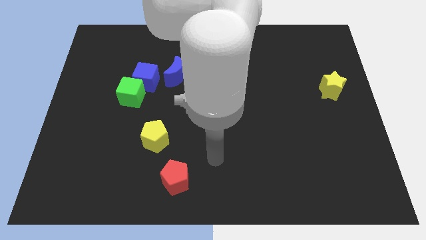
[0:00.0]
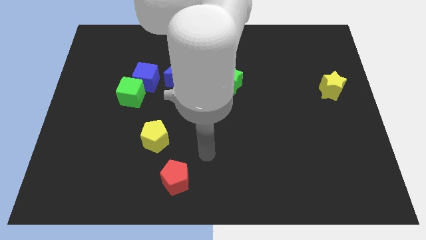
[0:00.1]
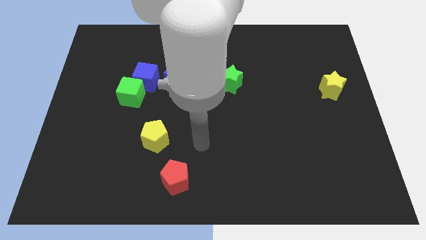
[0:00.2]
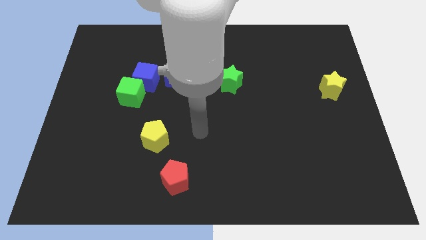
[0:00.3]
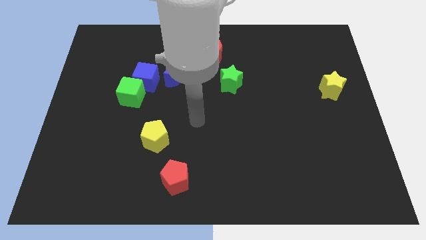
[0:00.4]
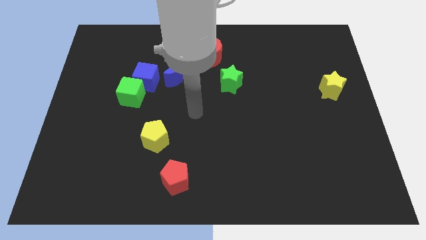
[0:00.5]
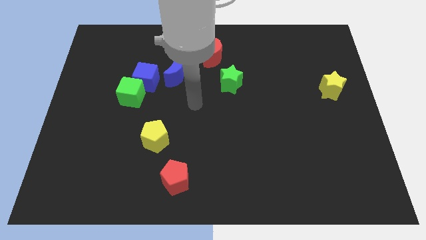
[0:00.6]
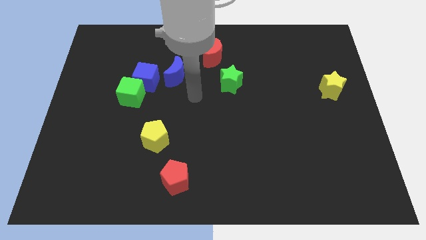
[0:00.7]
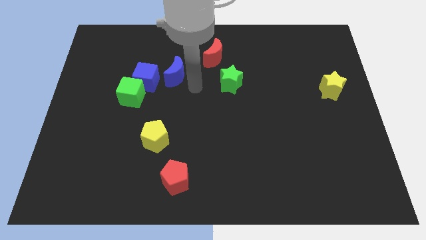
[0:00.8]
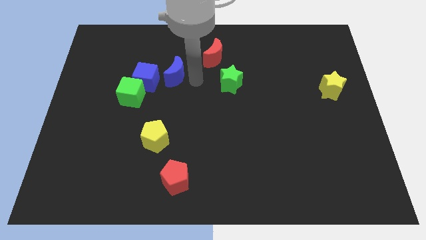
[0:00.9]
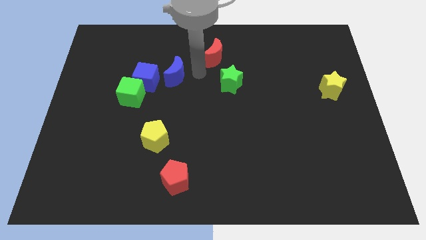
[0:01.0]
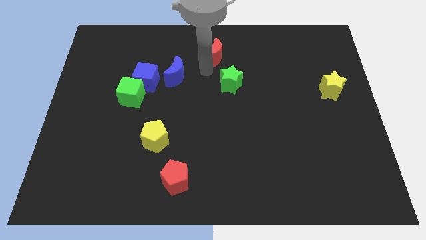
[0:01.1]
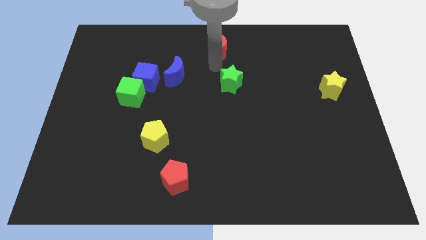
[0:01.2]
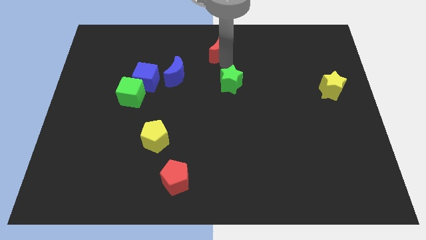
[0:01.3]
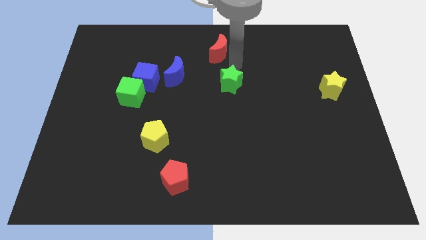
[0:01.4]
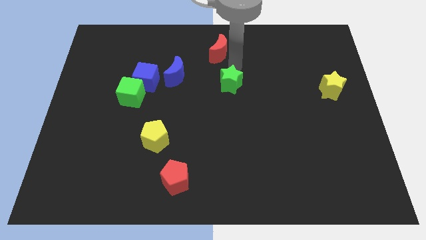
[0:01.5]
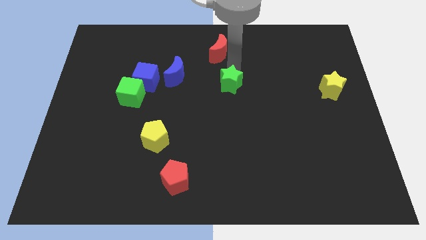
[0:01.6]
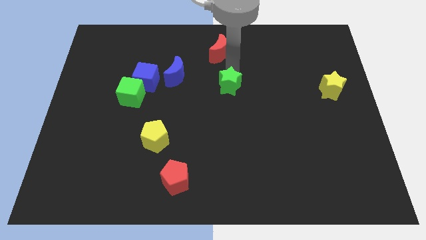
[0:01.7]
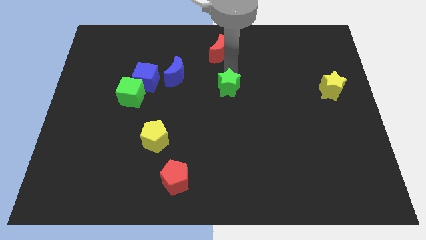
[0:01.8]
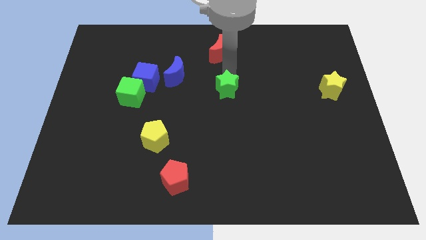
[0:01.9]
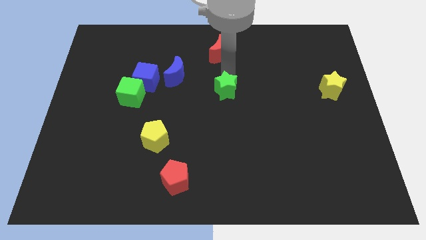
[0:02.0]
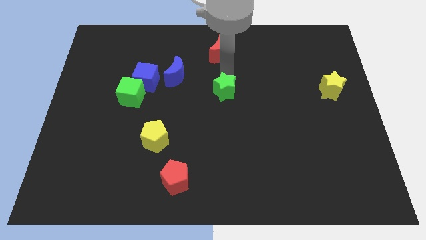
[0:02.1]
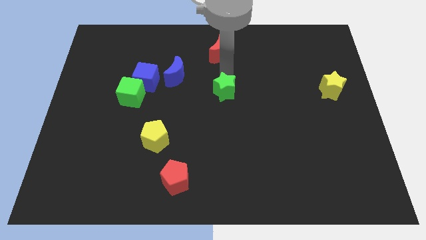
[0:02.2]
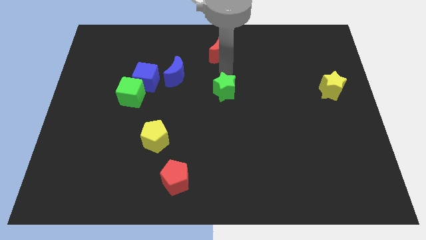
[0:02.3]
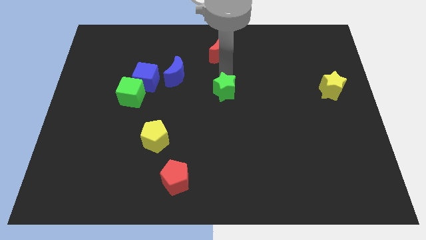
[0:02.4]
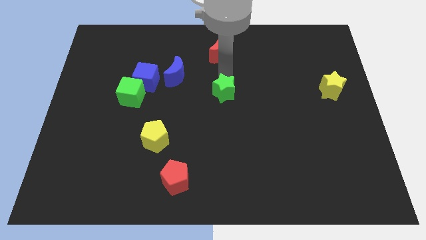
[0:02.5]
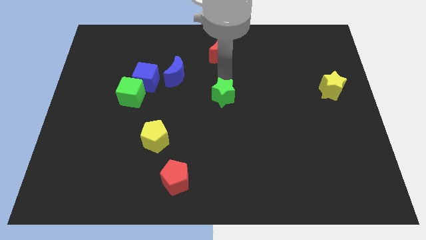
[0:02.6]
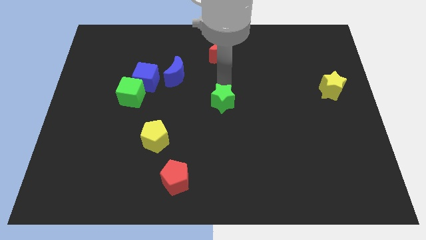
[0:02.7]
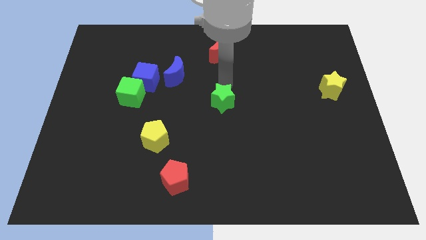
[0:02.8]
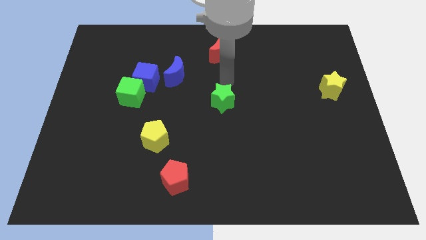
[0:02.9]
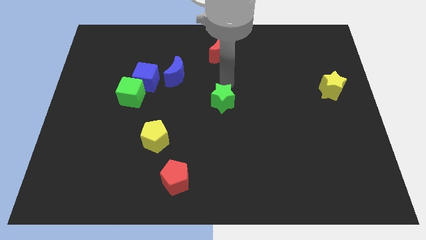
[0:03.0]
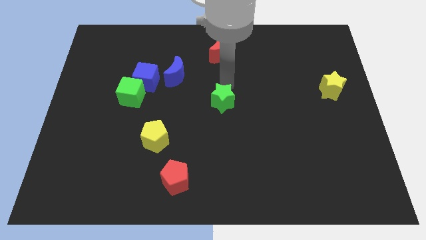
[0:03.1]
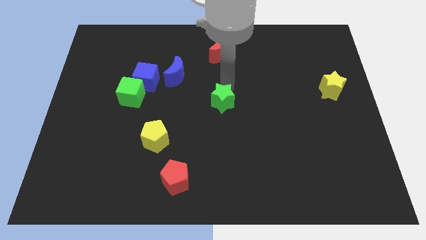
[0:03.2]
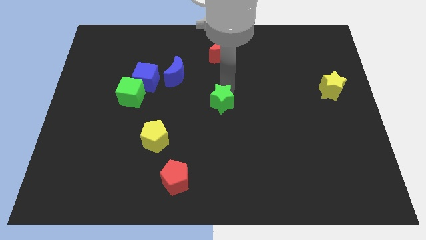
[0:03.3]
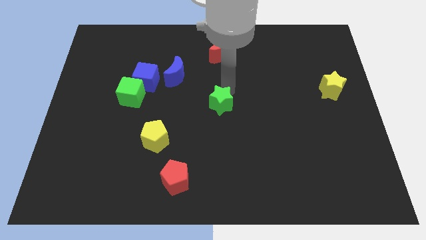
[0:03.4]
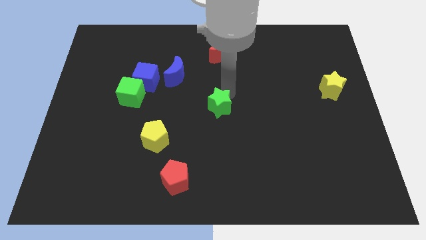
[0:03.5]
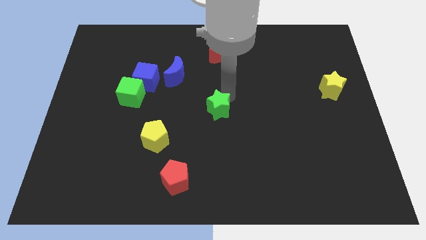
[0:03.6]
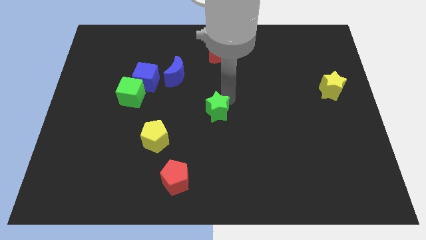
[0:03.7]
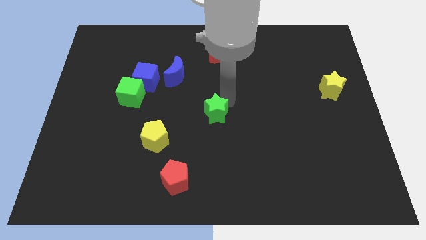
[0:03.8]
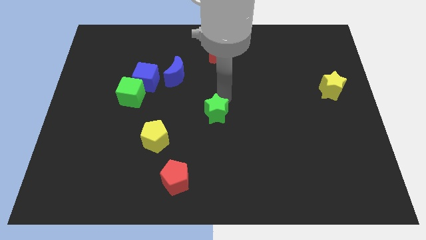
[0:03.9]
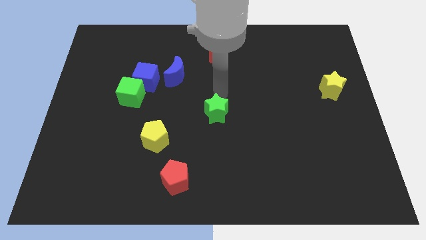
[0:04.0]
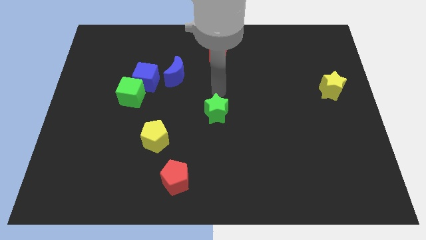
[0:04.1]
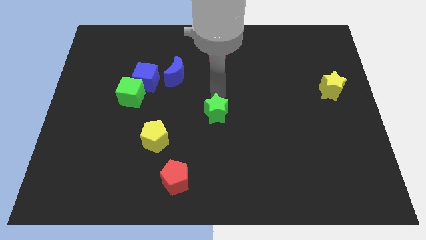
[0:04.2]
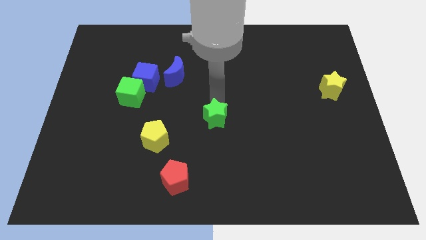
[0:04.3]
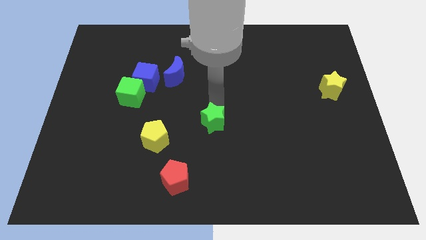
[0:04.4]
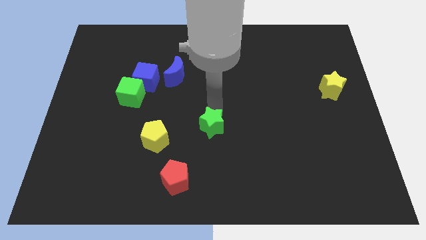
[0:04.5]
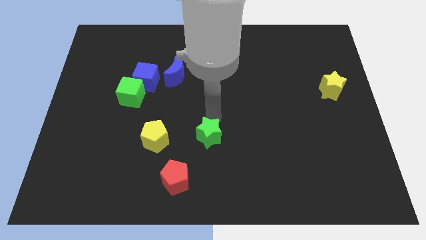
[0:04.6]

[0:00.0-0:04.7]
slide the green star to the top right of the red pentagon

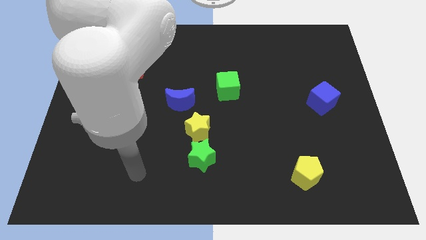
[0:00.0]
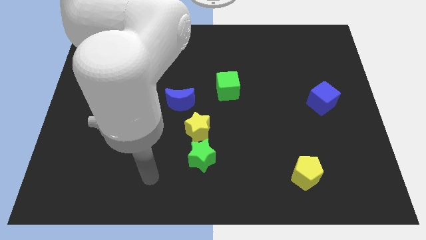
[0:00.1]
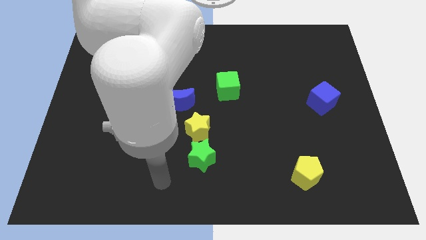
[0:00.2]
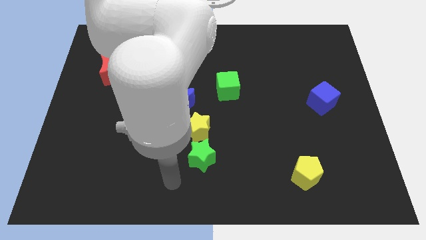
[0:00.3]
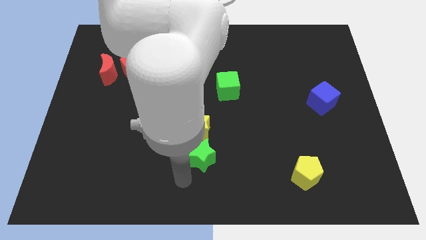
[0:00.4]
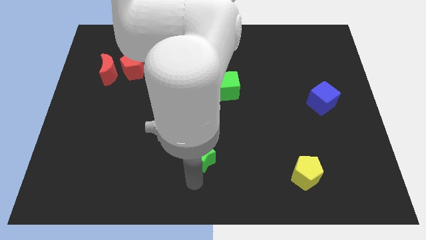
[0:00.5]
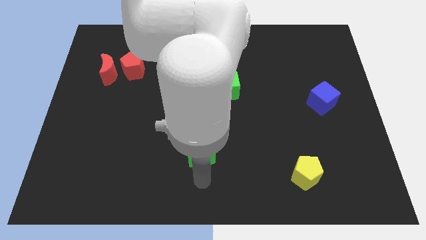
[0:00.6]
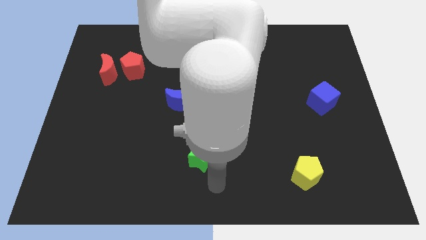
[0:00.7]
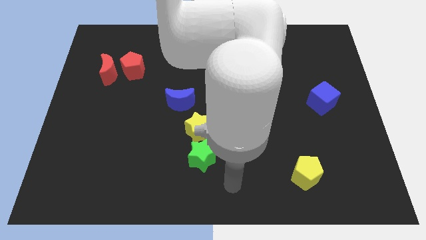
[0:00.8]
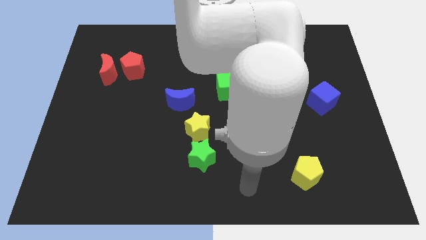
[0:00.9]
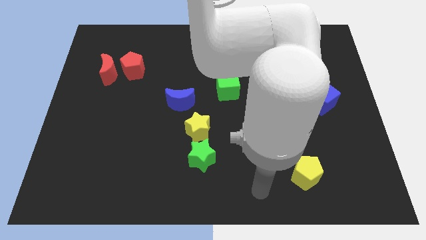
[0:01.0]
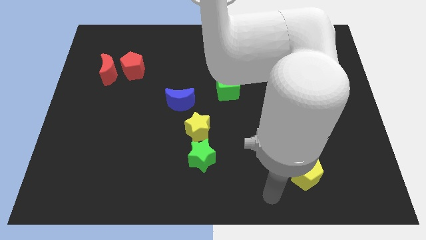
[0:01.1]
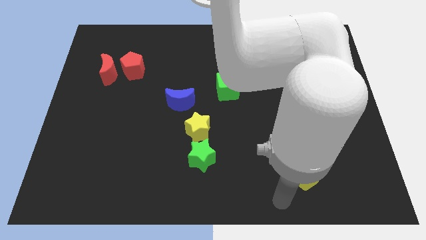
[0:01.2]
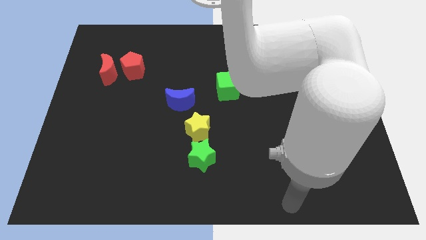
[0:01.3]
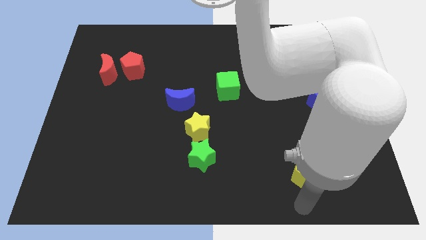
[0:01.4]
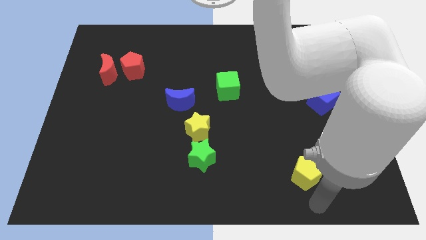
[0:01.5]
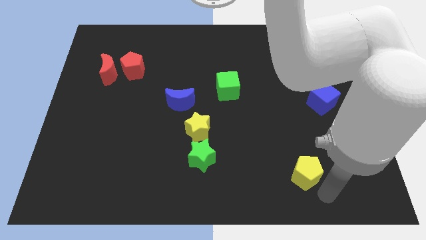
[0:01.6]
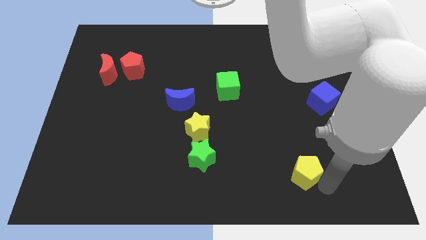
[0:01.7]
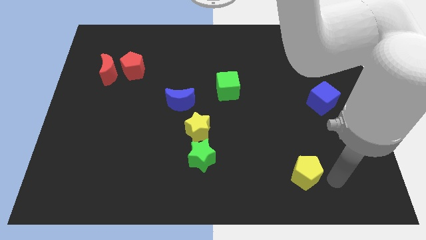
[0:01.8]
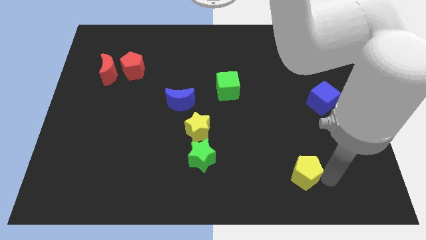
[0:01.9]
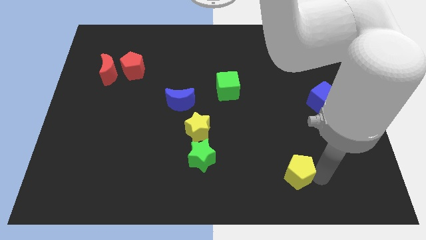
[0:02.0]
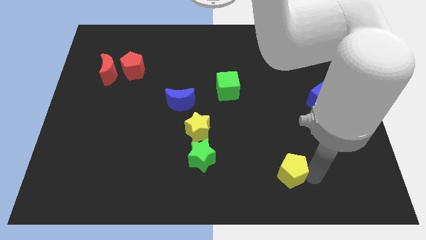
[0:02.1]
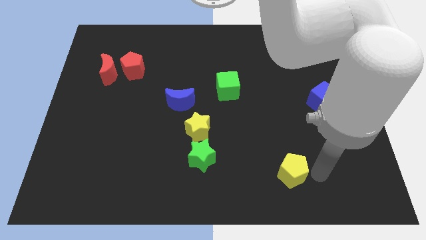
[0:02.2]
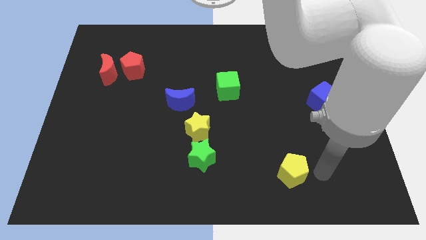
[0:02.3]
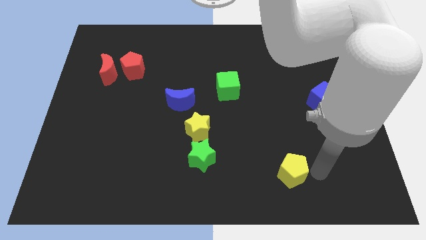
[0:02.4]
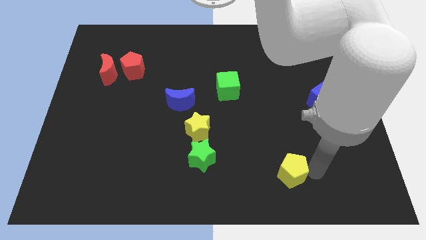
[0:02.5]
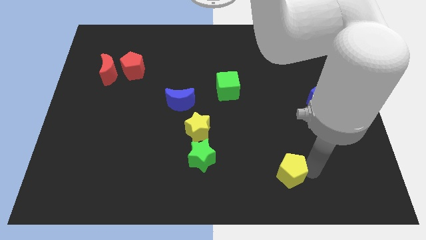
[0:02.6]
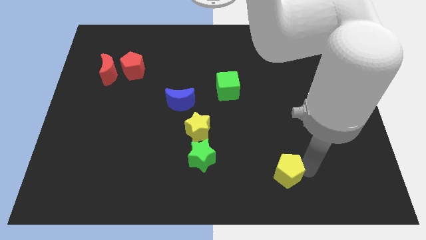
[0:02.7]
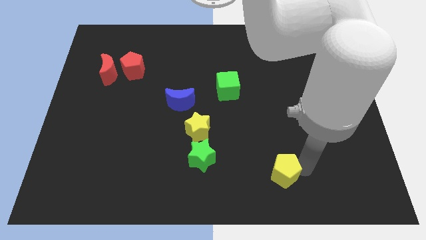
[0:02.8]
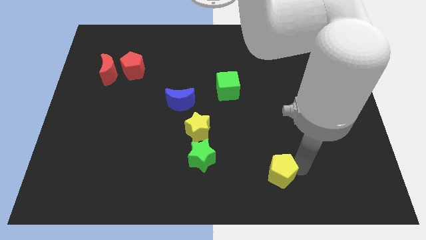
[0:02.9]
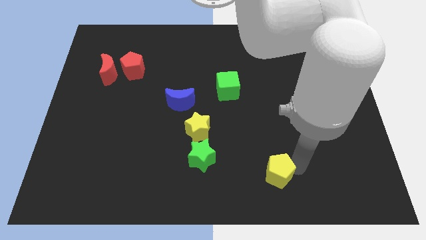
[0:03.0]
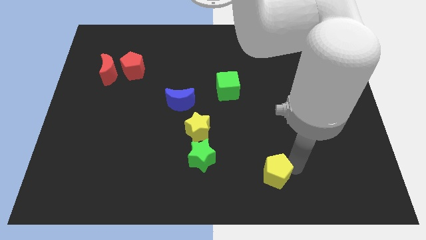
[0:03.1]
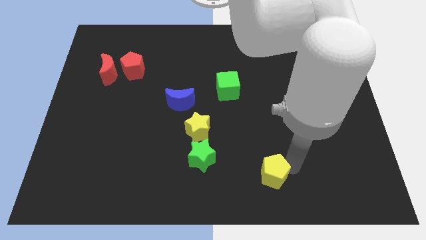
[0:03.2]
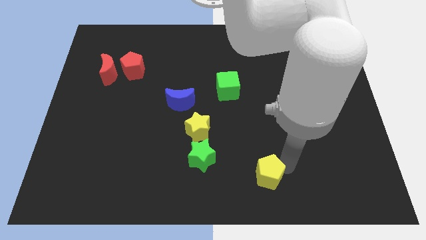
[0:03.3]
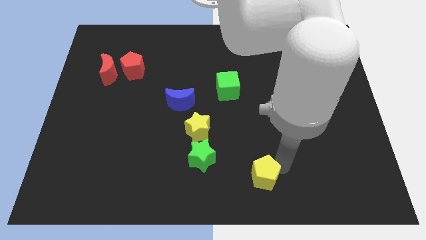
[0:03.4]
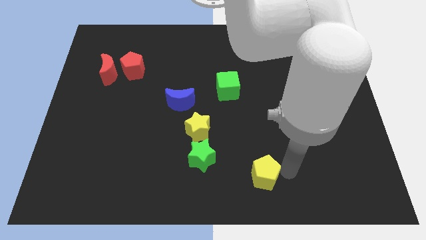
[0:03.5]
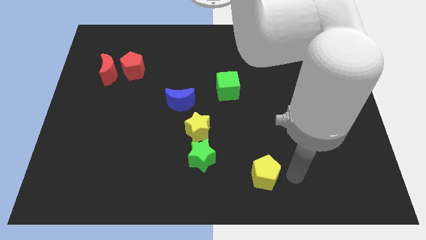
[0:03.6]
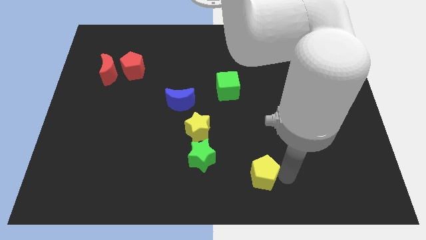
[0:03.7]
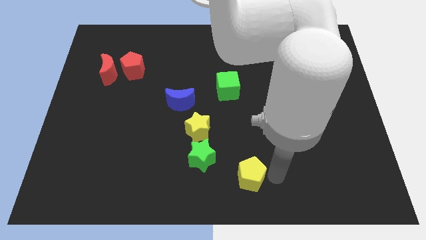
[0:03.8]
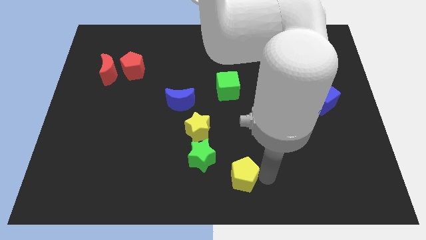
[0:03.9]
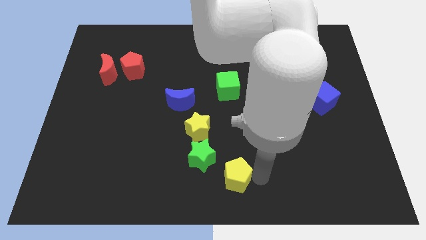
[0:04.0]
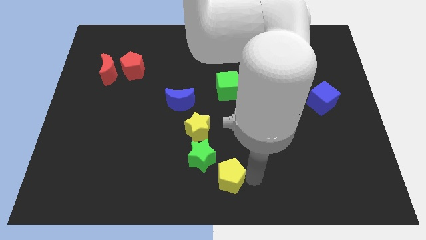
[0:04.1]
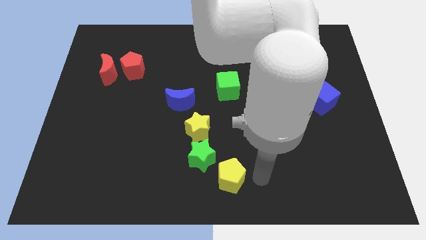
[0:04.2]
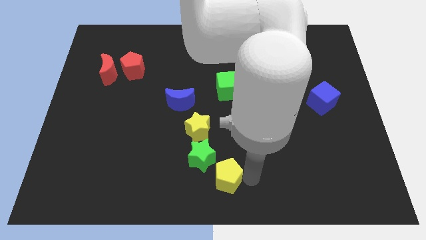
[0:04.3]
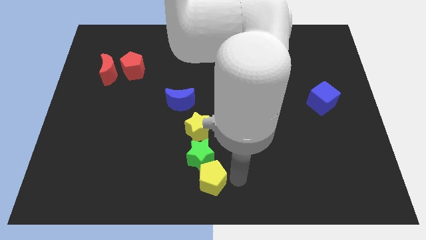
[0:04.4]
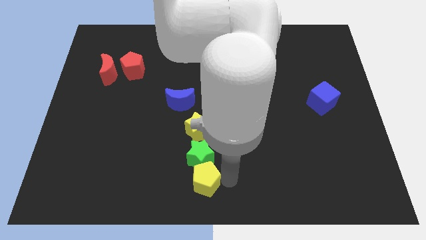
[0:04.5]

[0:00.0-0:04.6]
push the yellow pentagon diagonally down and to the left of the green star
